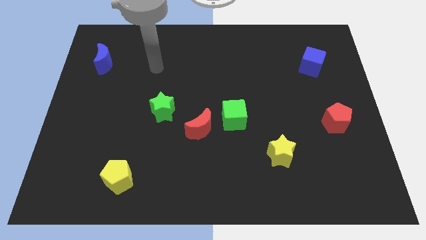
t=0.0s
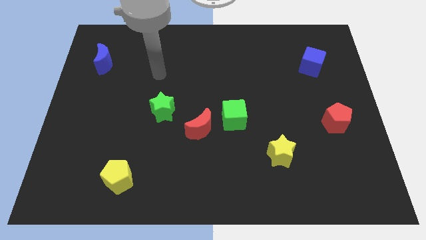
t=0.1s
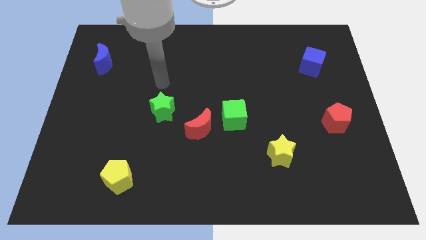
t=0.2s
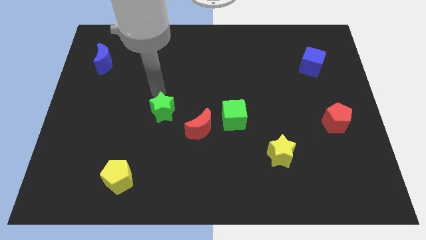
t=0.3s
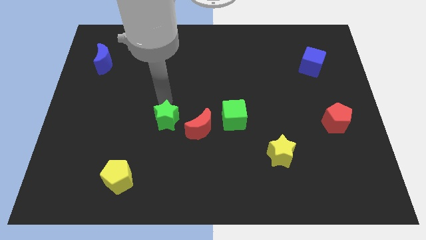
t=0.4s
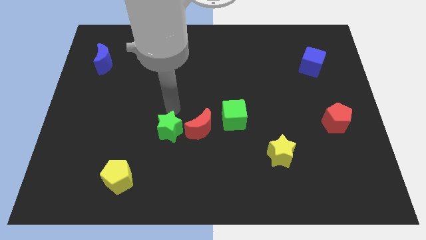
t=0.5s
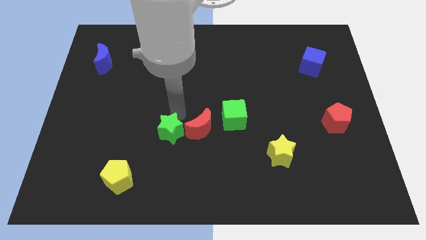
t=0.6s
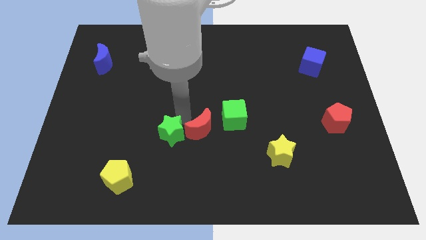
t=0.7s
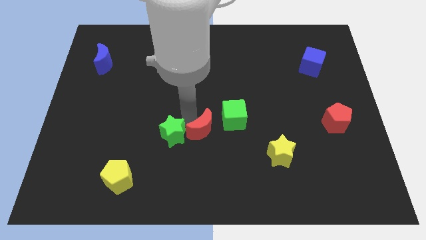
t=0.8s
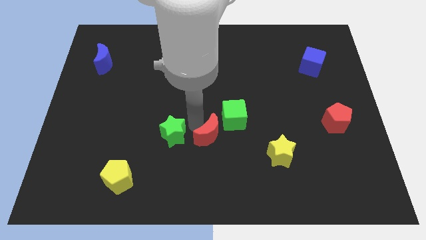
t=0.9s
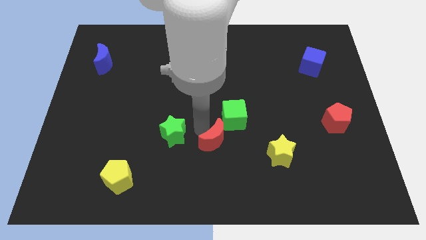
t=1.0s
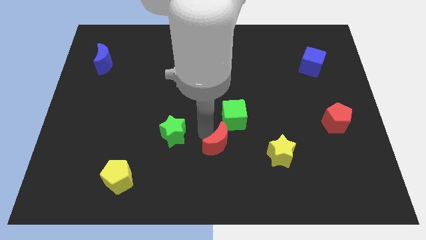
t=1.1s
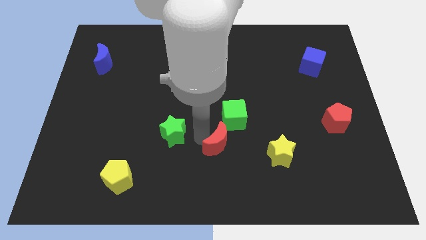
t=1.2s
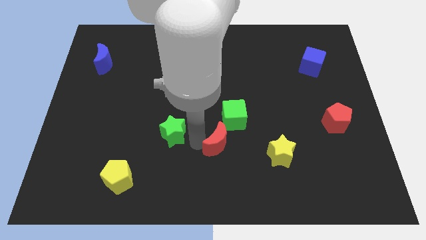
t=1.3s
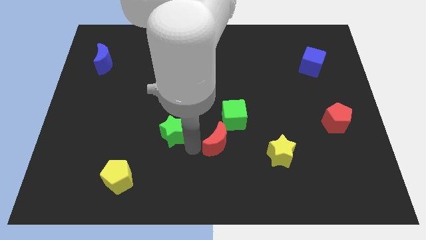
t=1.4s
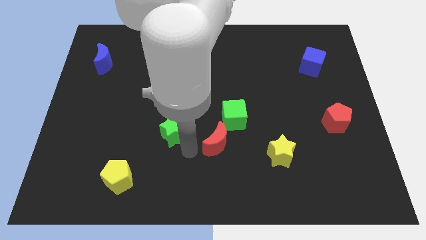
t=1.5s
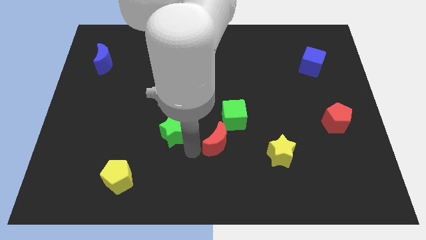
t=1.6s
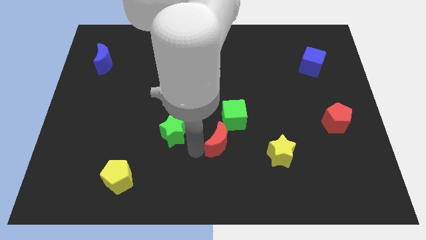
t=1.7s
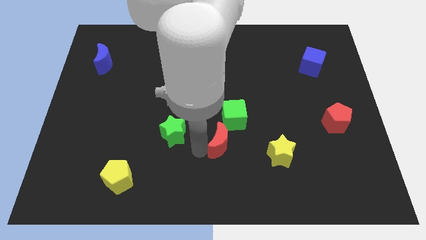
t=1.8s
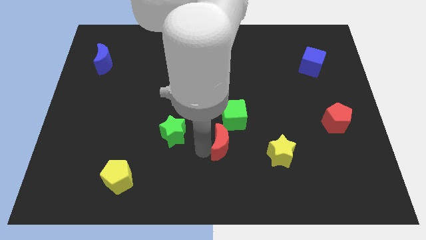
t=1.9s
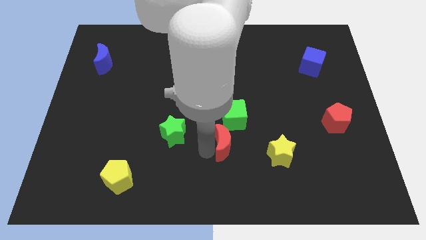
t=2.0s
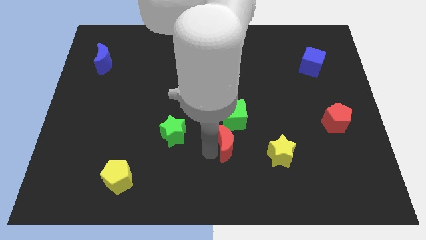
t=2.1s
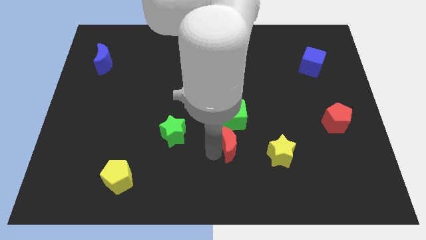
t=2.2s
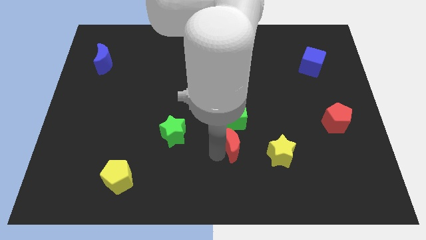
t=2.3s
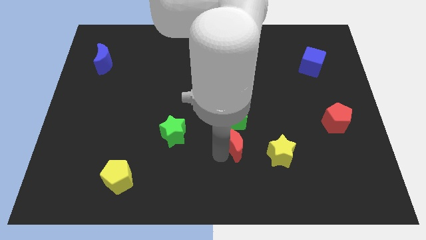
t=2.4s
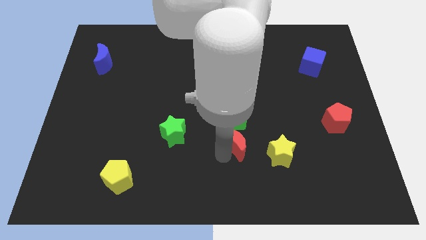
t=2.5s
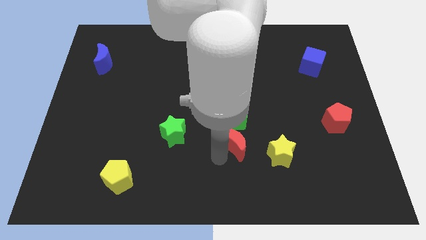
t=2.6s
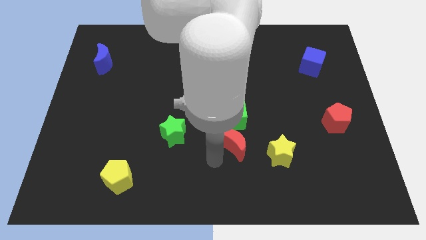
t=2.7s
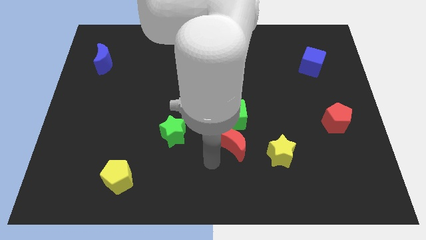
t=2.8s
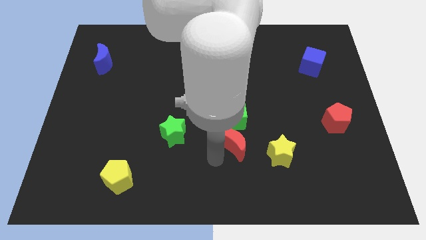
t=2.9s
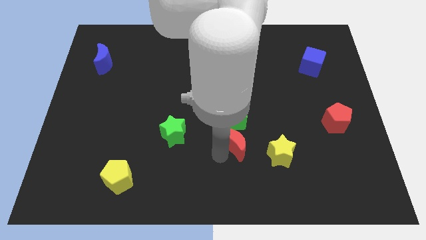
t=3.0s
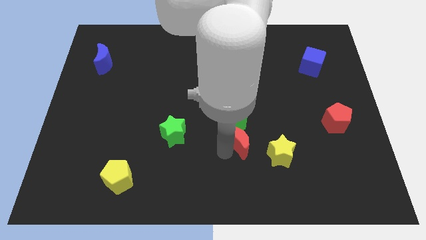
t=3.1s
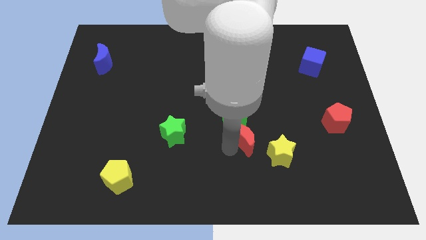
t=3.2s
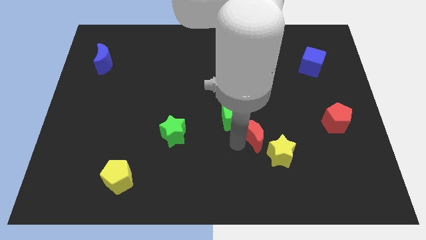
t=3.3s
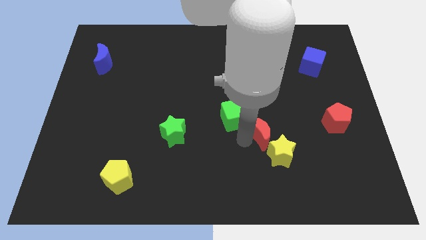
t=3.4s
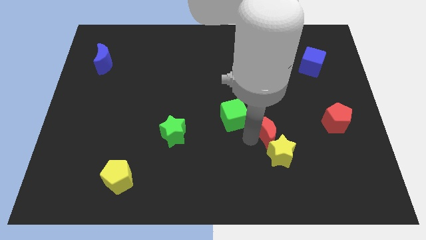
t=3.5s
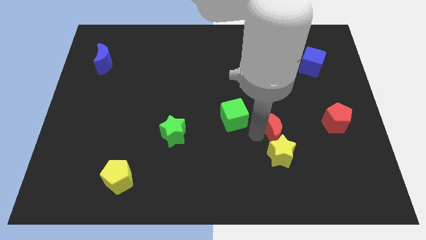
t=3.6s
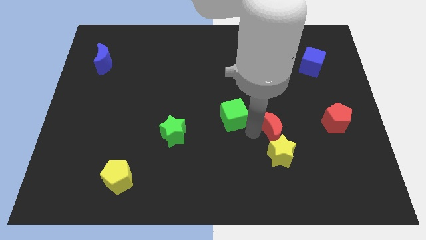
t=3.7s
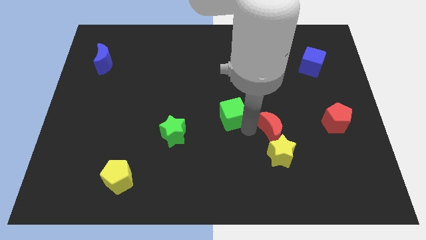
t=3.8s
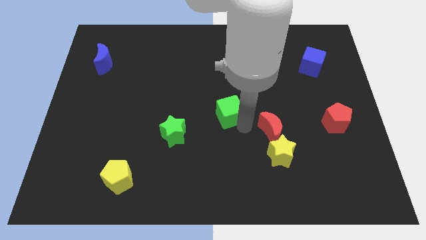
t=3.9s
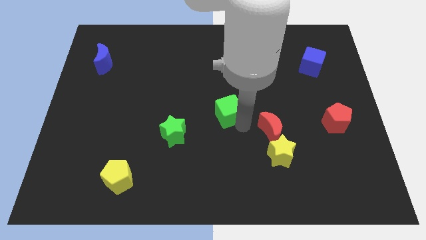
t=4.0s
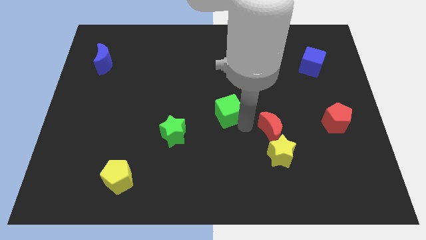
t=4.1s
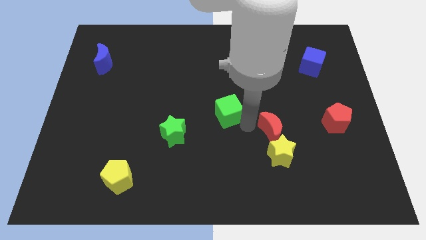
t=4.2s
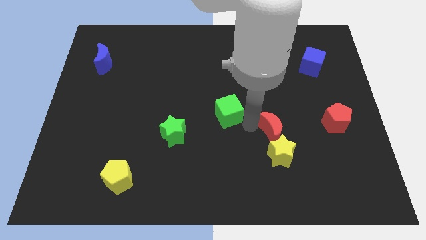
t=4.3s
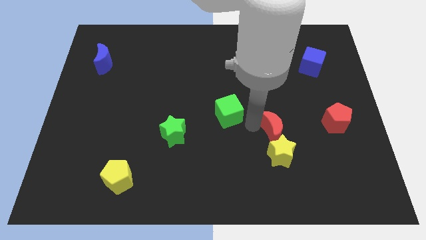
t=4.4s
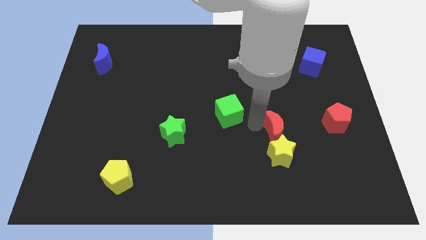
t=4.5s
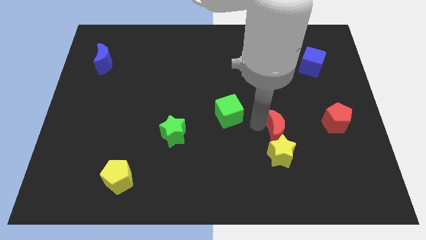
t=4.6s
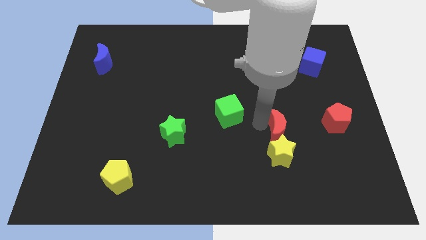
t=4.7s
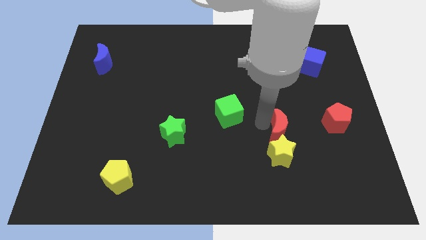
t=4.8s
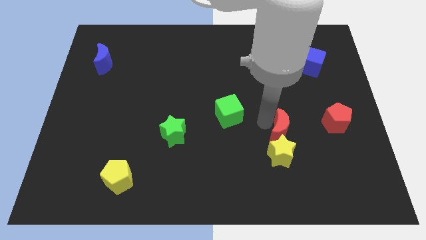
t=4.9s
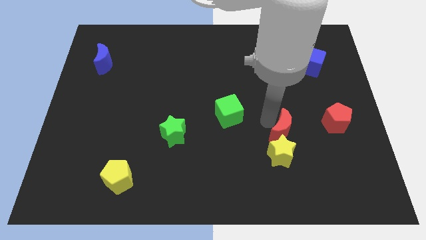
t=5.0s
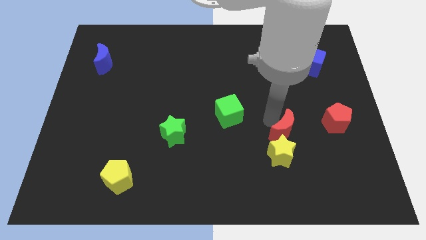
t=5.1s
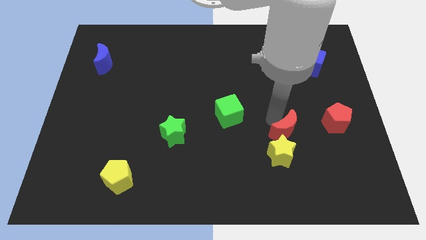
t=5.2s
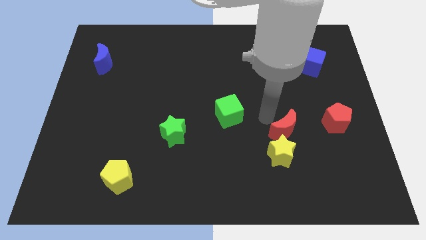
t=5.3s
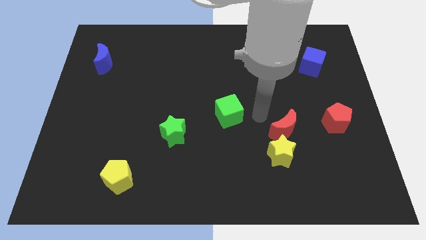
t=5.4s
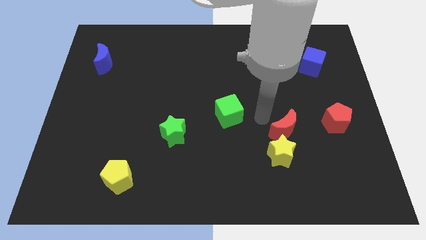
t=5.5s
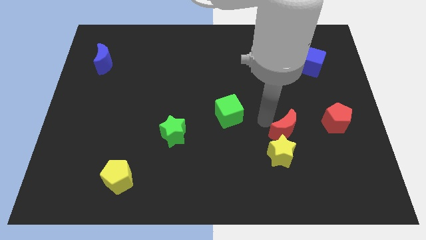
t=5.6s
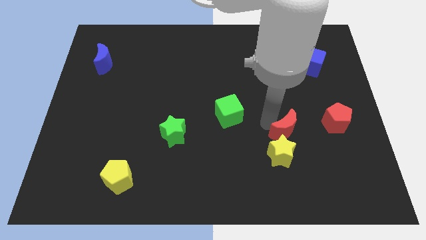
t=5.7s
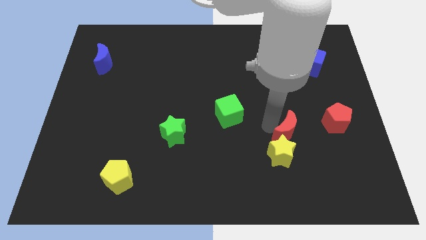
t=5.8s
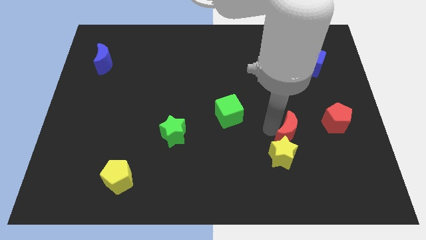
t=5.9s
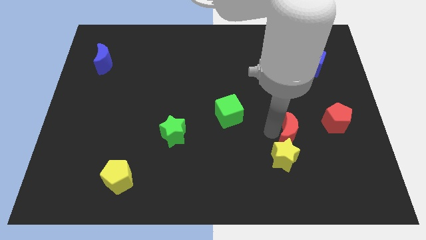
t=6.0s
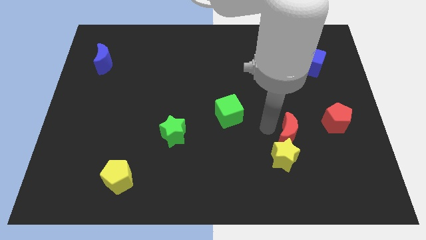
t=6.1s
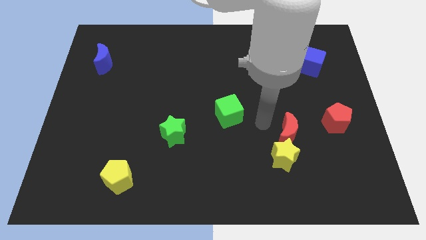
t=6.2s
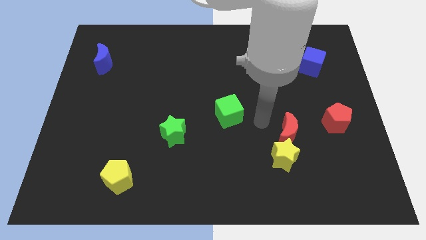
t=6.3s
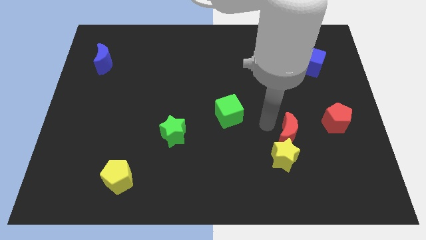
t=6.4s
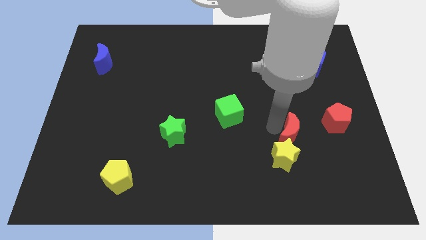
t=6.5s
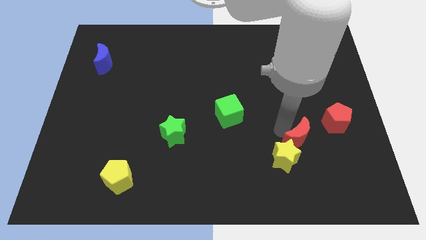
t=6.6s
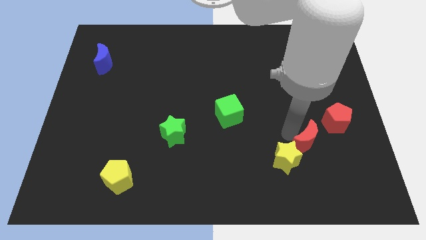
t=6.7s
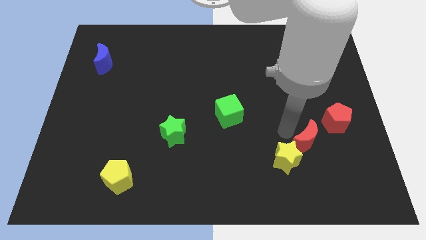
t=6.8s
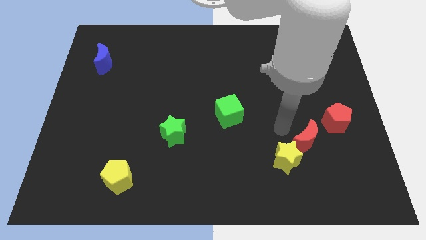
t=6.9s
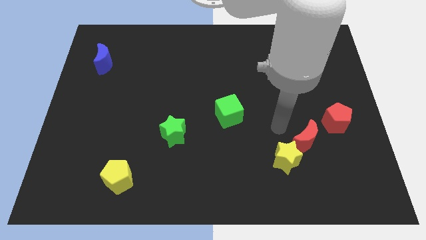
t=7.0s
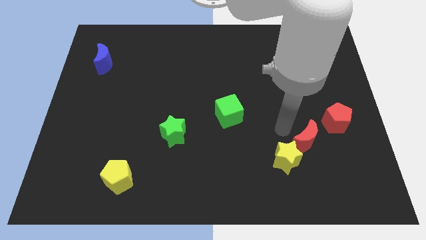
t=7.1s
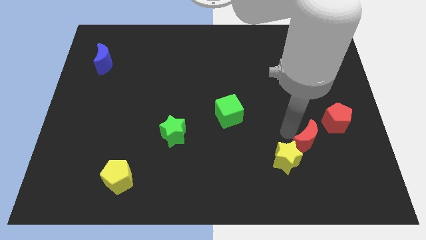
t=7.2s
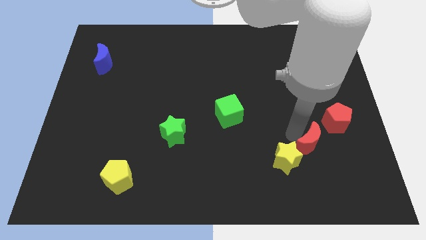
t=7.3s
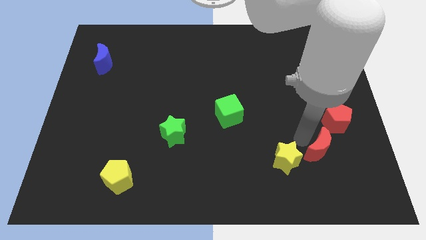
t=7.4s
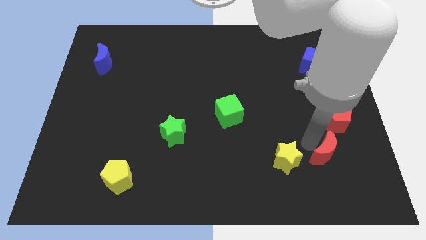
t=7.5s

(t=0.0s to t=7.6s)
slide the red moon below the red pentagon
